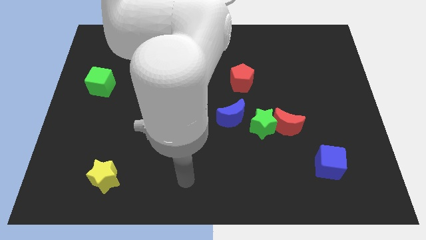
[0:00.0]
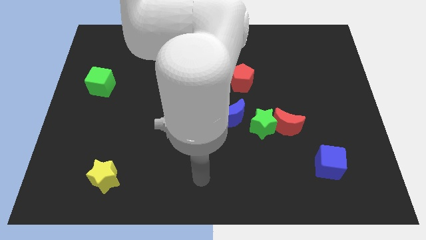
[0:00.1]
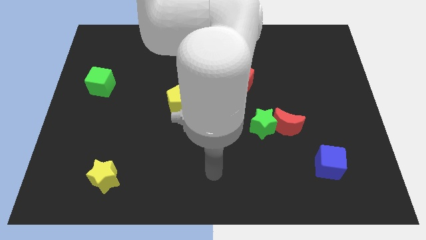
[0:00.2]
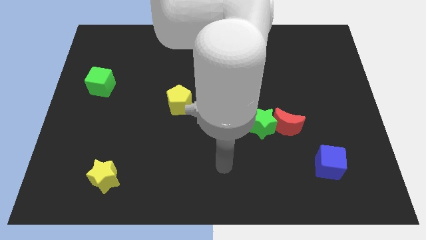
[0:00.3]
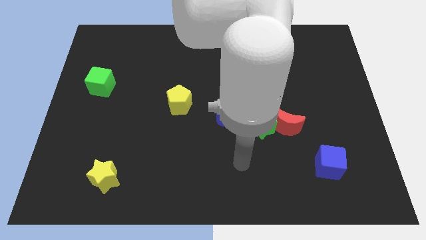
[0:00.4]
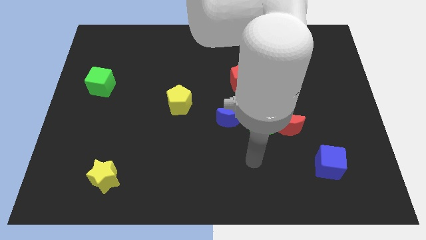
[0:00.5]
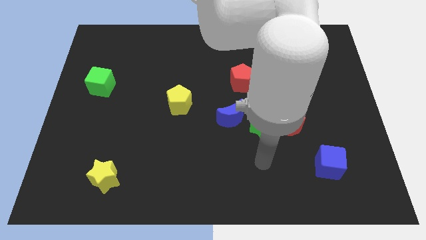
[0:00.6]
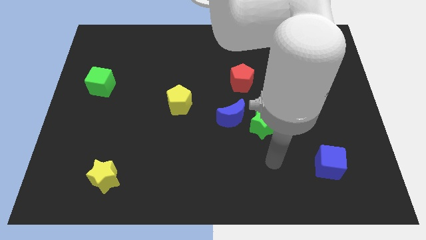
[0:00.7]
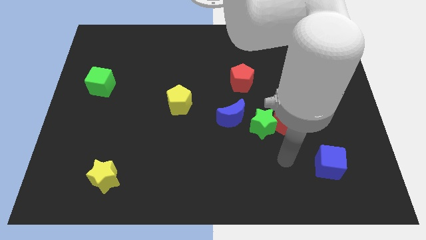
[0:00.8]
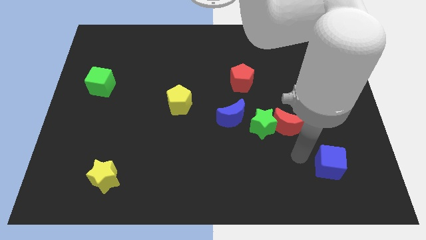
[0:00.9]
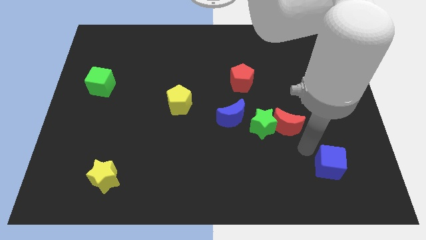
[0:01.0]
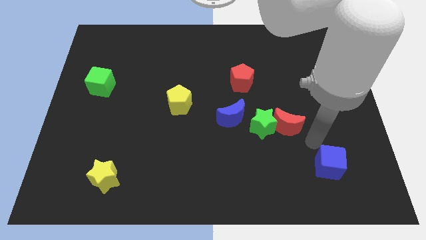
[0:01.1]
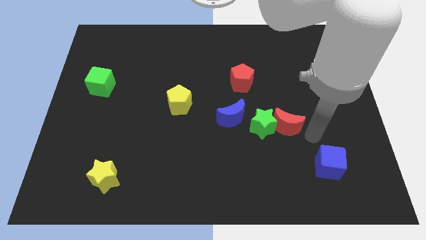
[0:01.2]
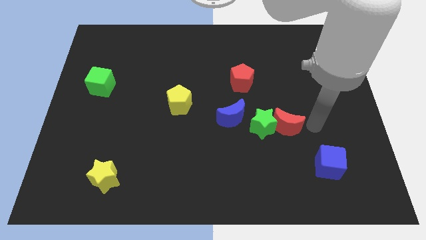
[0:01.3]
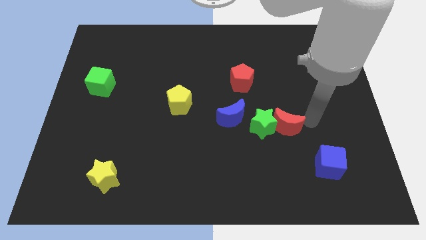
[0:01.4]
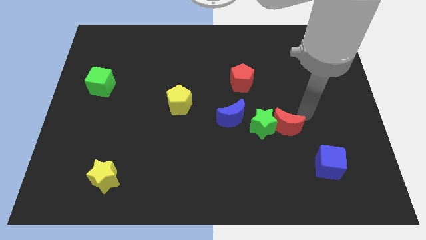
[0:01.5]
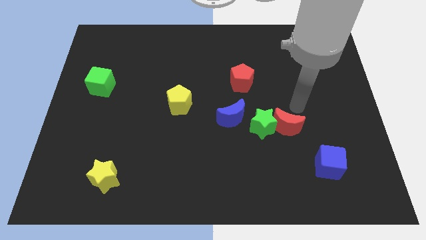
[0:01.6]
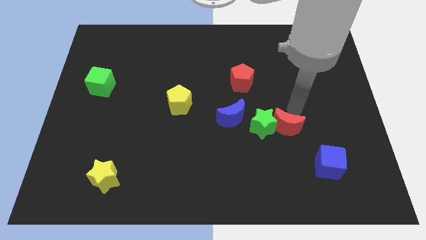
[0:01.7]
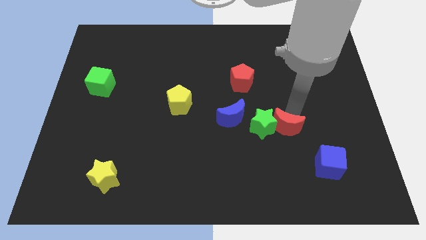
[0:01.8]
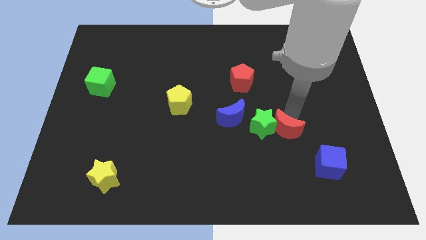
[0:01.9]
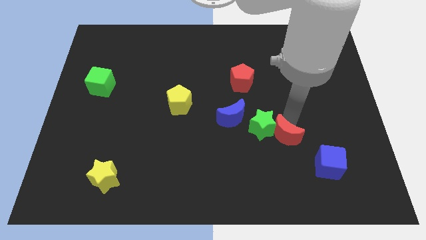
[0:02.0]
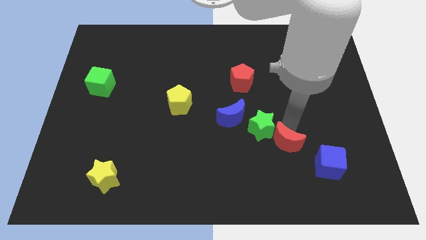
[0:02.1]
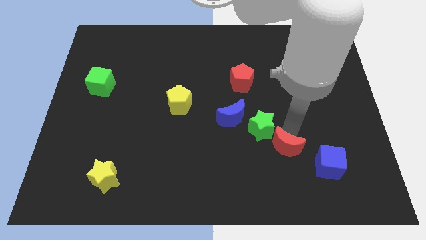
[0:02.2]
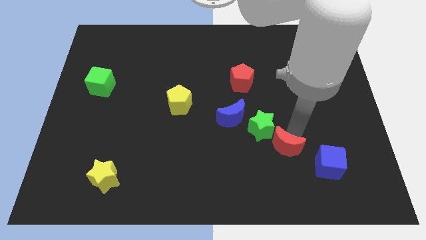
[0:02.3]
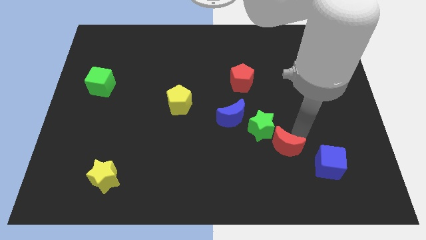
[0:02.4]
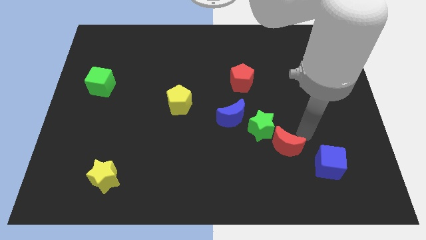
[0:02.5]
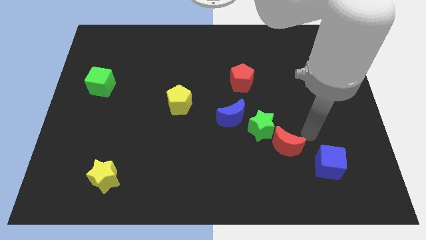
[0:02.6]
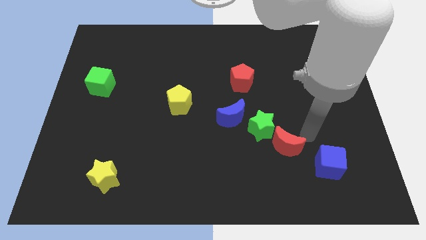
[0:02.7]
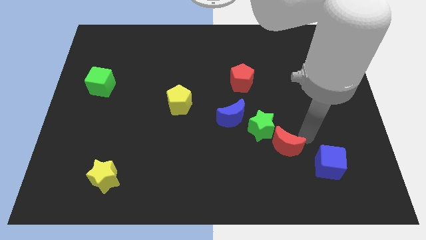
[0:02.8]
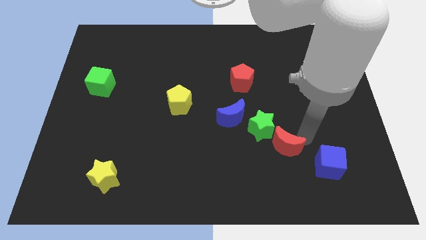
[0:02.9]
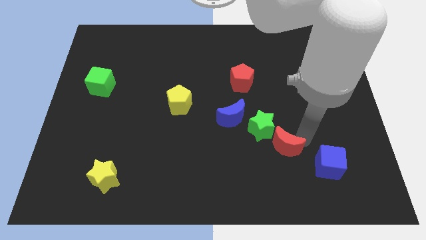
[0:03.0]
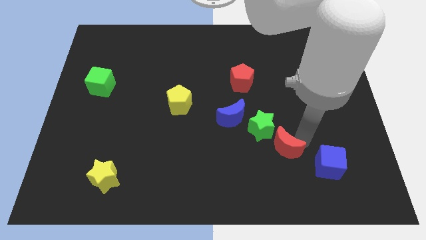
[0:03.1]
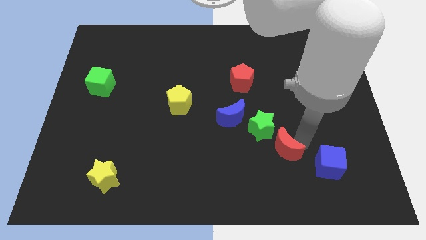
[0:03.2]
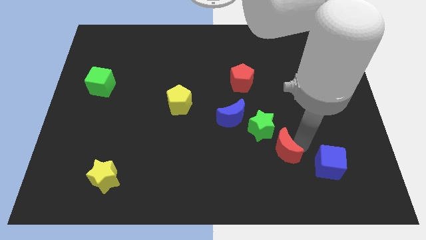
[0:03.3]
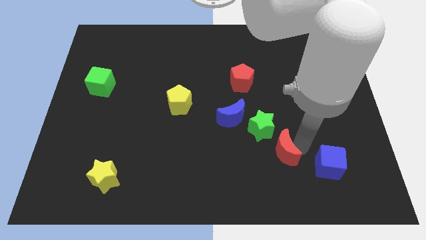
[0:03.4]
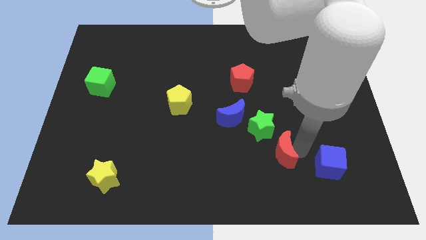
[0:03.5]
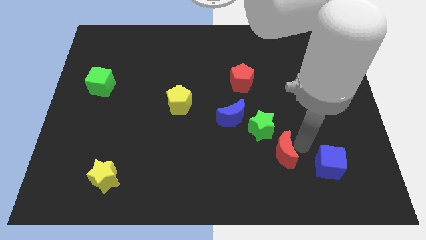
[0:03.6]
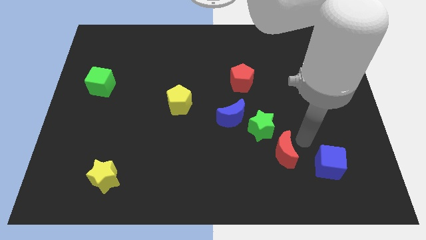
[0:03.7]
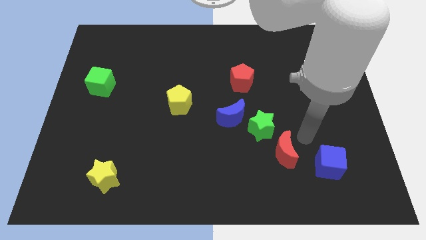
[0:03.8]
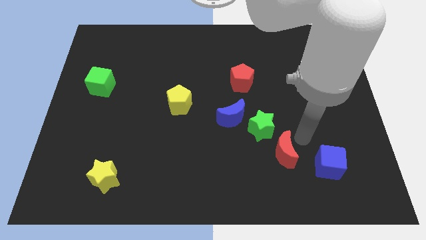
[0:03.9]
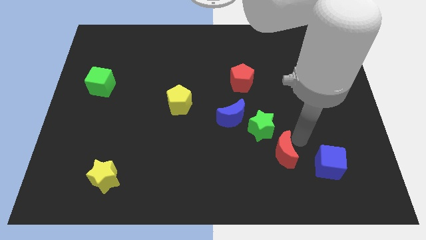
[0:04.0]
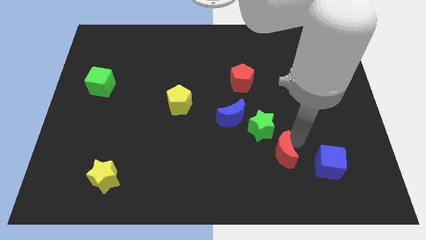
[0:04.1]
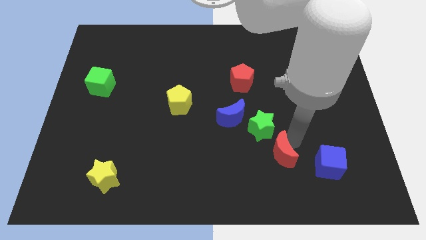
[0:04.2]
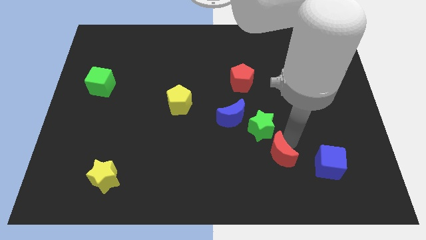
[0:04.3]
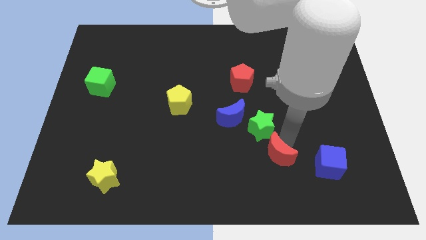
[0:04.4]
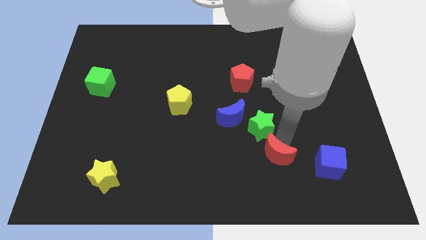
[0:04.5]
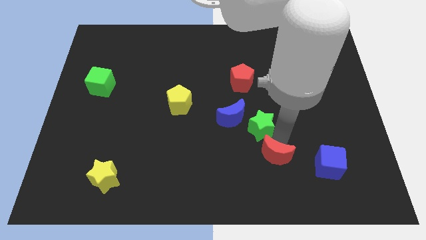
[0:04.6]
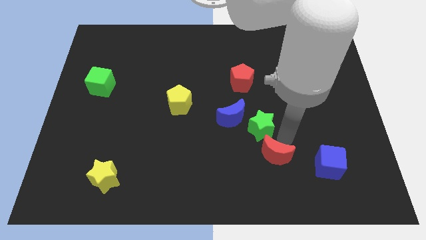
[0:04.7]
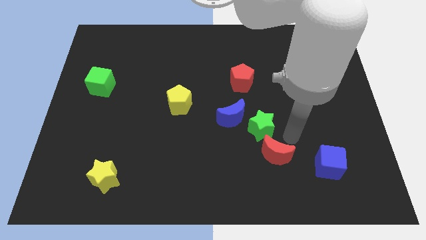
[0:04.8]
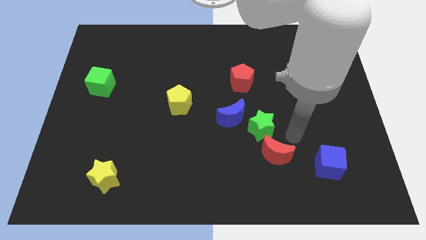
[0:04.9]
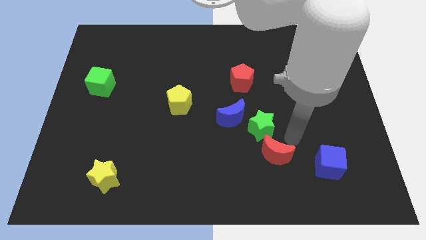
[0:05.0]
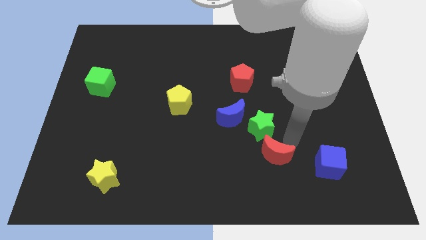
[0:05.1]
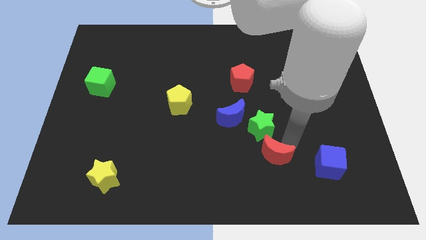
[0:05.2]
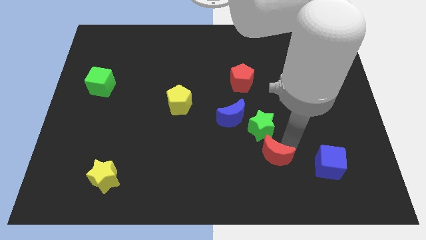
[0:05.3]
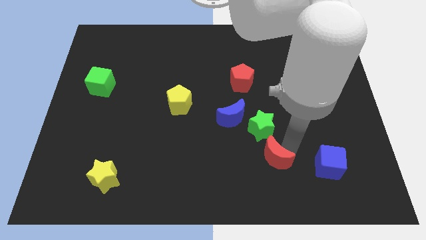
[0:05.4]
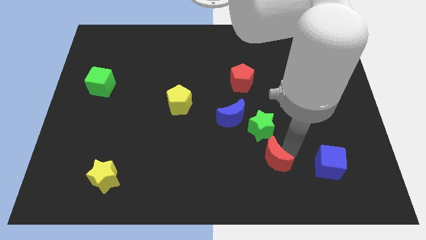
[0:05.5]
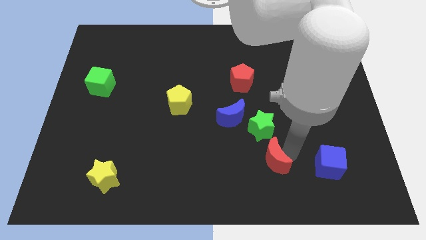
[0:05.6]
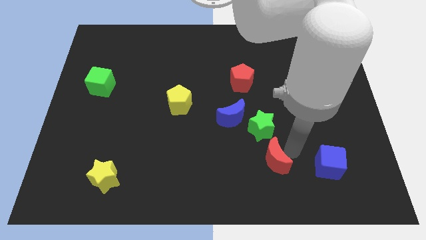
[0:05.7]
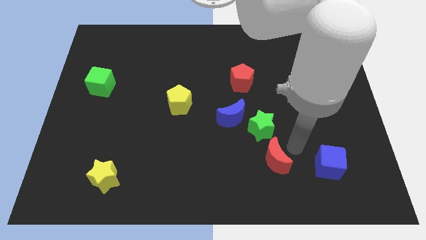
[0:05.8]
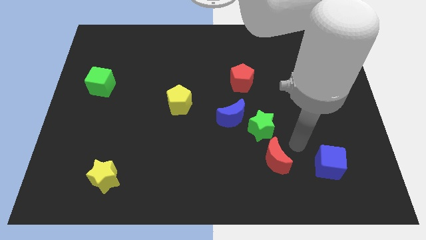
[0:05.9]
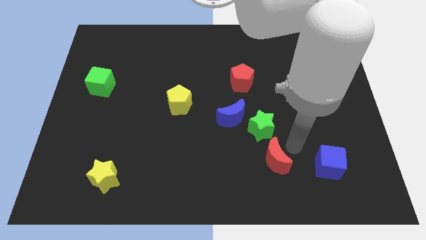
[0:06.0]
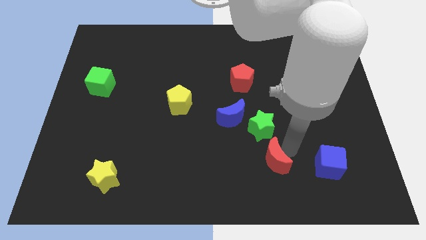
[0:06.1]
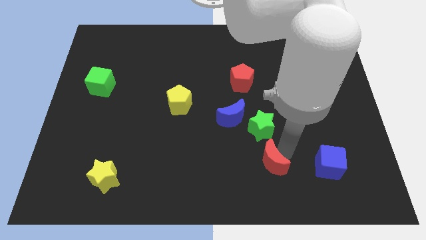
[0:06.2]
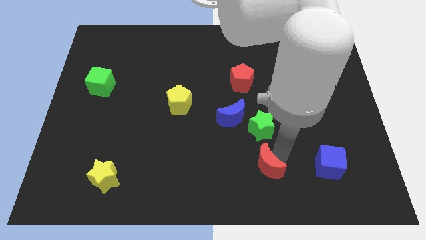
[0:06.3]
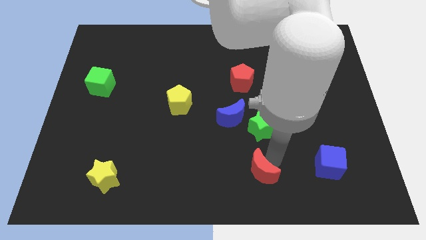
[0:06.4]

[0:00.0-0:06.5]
move the red moon to the bottom side
